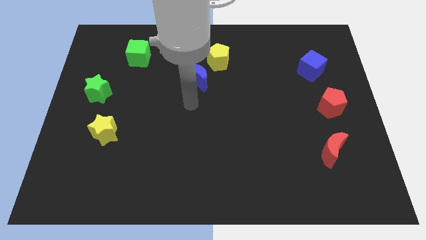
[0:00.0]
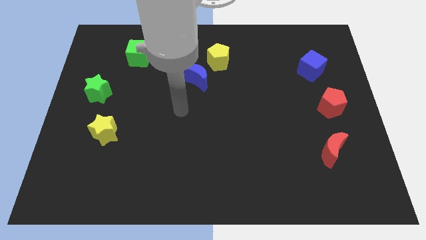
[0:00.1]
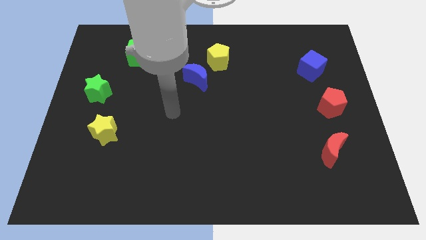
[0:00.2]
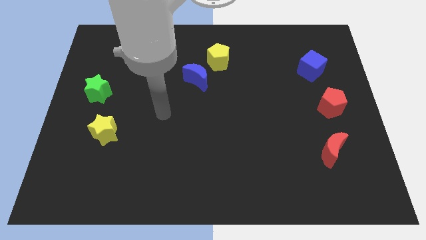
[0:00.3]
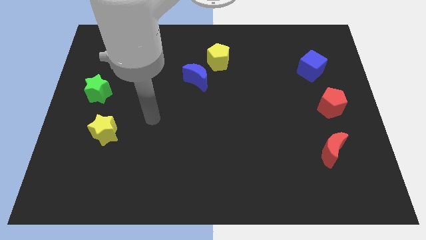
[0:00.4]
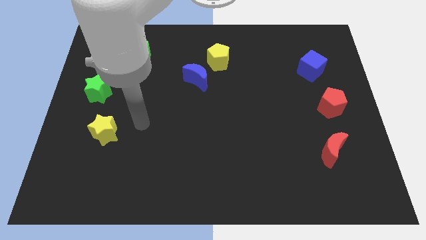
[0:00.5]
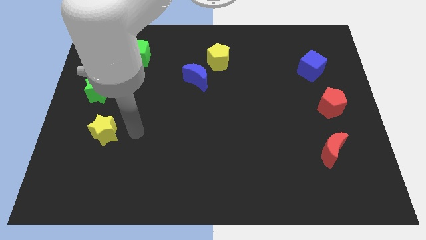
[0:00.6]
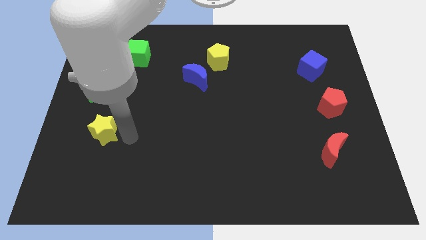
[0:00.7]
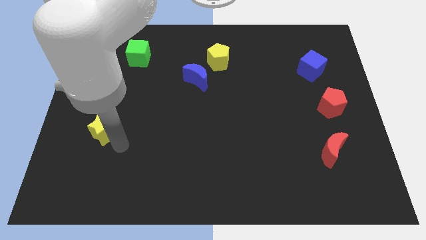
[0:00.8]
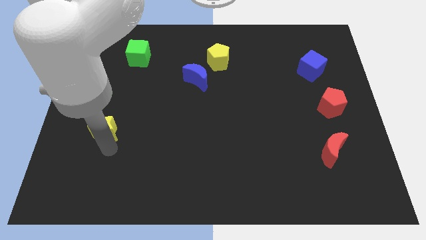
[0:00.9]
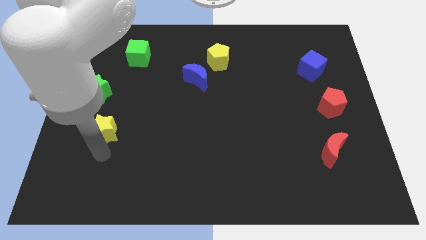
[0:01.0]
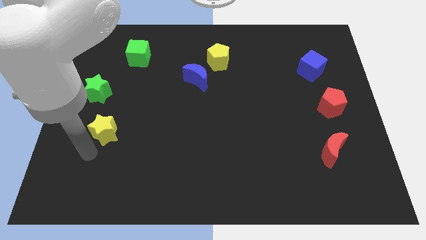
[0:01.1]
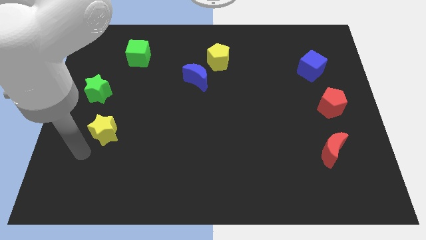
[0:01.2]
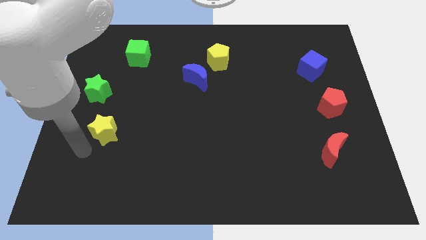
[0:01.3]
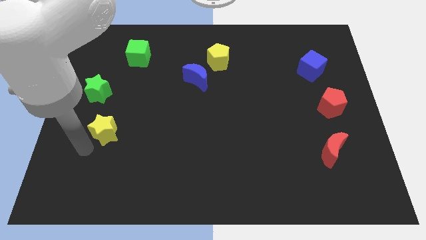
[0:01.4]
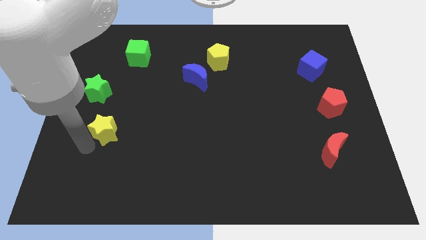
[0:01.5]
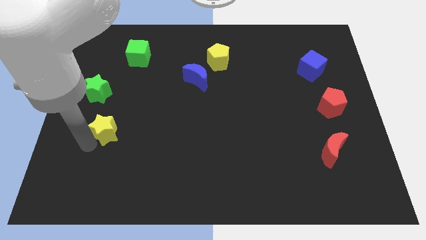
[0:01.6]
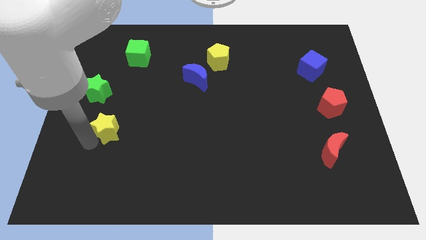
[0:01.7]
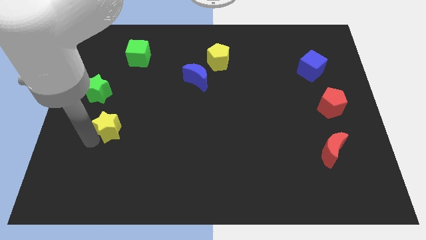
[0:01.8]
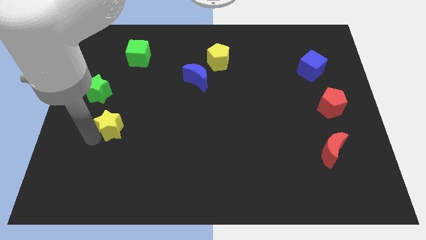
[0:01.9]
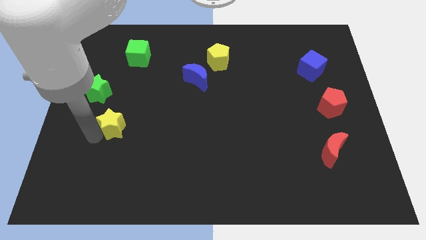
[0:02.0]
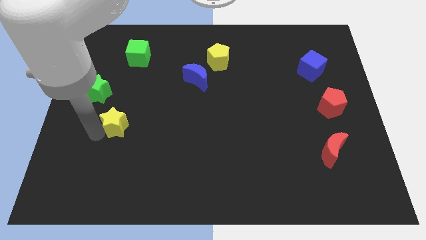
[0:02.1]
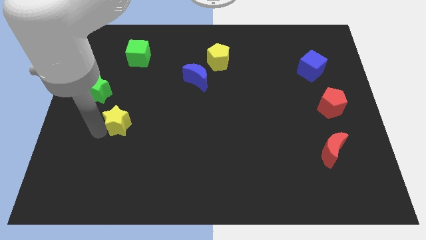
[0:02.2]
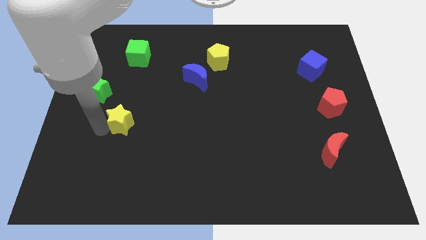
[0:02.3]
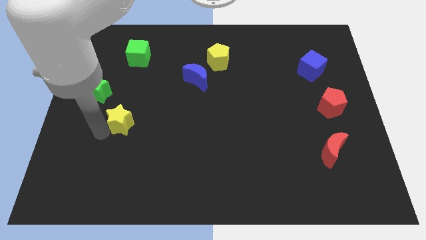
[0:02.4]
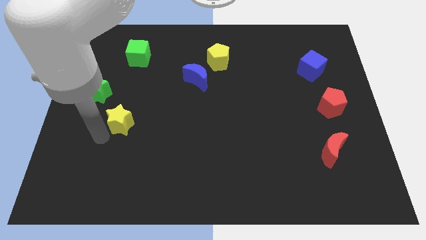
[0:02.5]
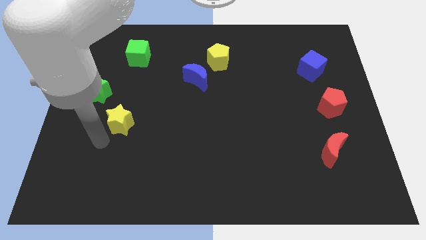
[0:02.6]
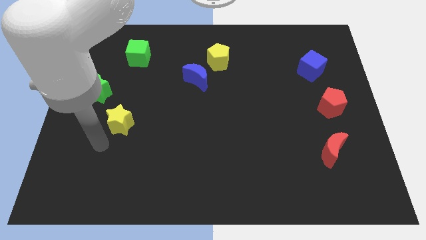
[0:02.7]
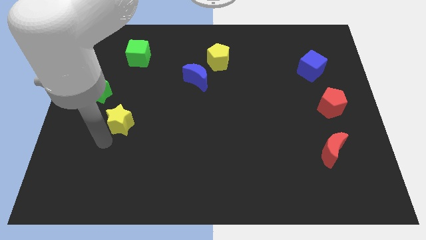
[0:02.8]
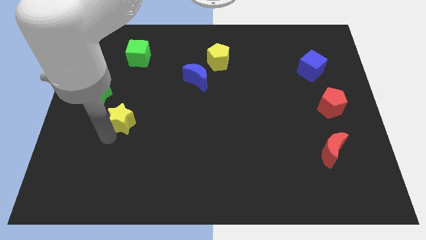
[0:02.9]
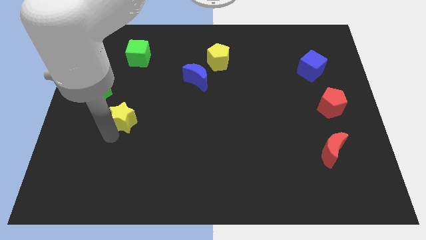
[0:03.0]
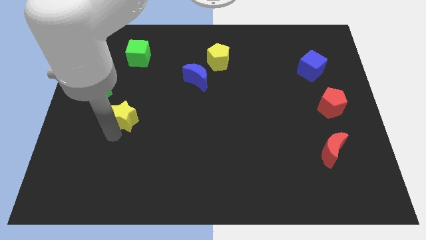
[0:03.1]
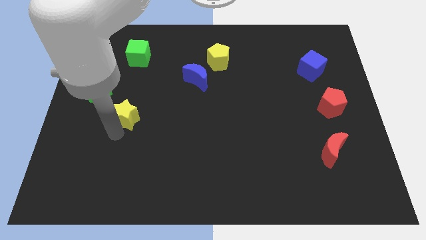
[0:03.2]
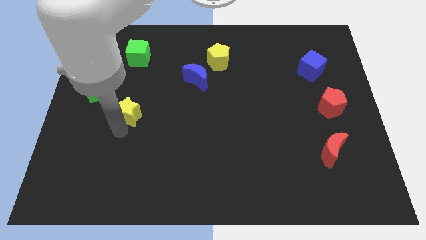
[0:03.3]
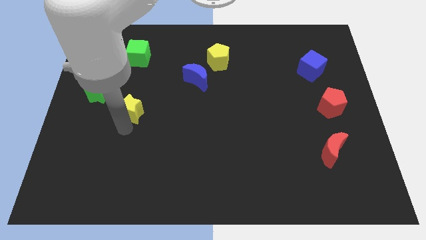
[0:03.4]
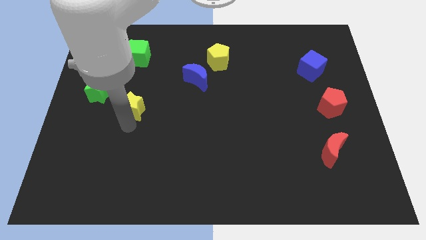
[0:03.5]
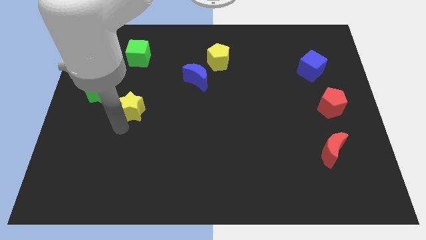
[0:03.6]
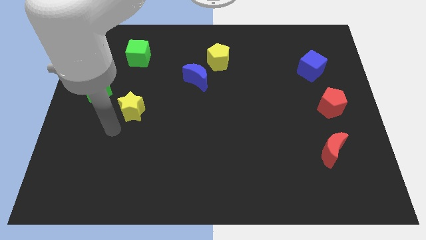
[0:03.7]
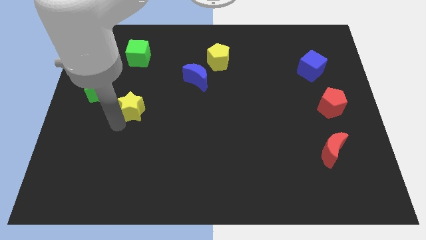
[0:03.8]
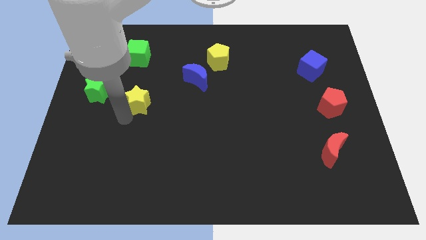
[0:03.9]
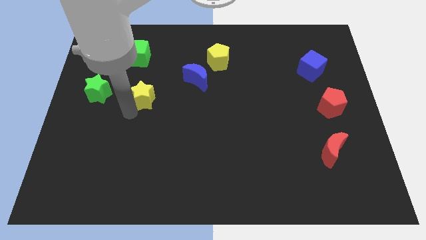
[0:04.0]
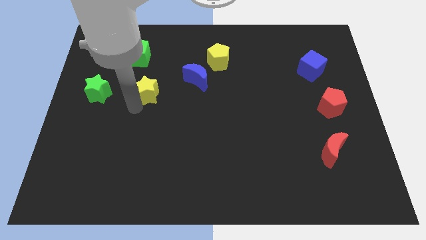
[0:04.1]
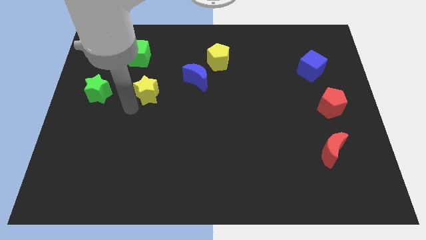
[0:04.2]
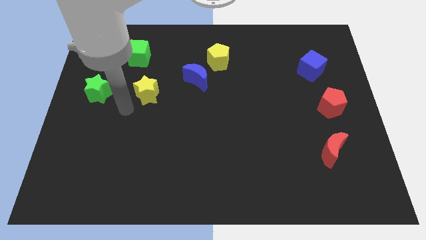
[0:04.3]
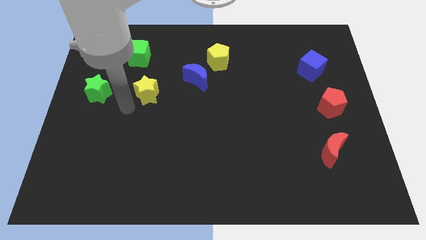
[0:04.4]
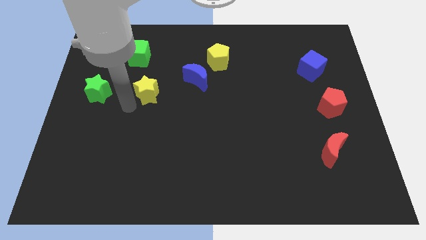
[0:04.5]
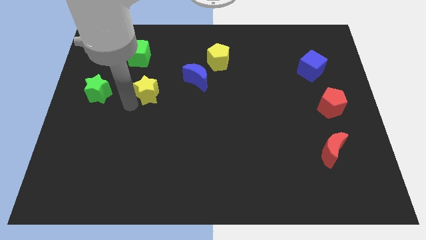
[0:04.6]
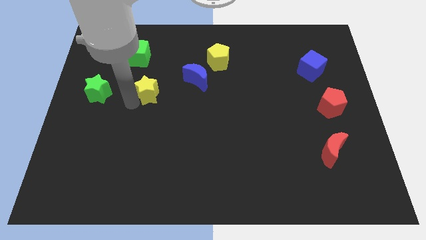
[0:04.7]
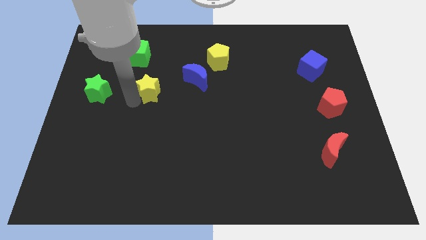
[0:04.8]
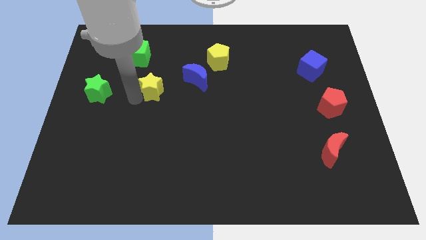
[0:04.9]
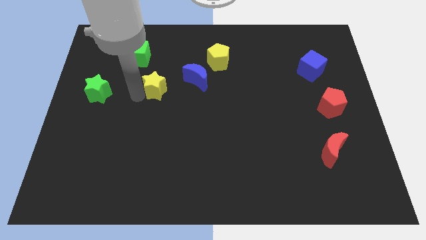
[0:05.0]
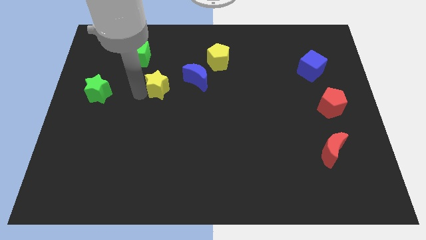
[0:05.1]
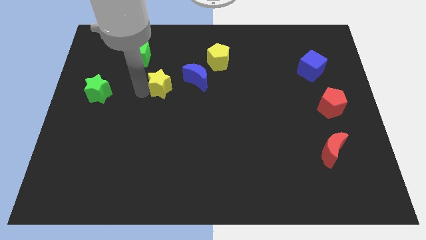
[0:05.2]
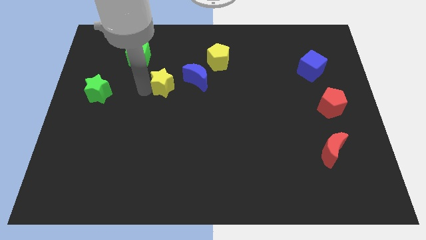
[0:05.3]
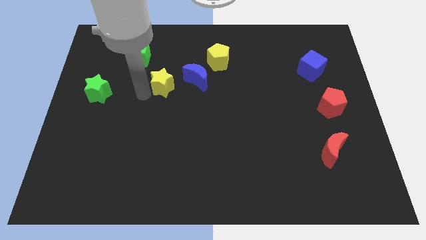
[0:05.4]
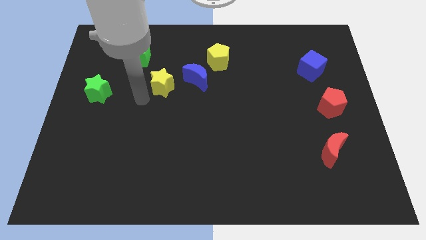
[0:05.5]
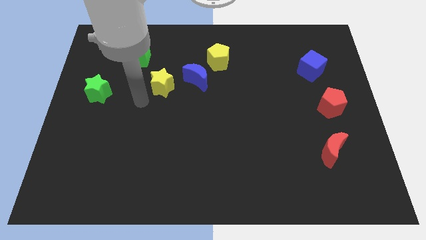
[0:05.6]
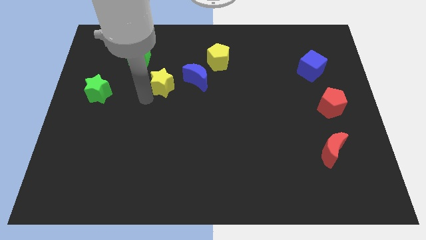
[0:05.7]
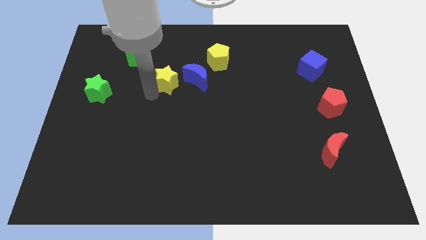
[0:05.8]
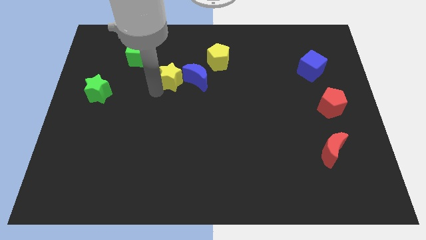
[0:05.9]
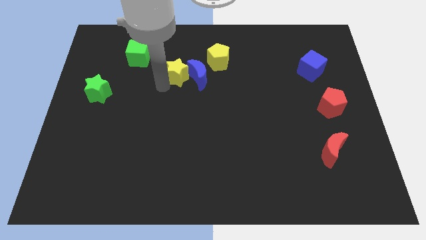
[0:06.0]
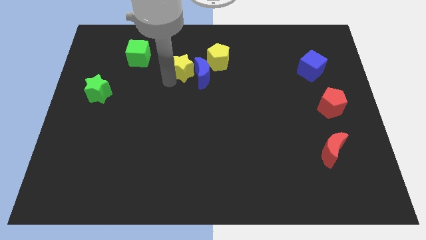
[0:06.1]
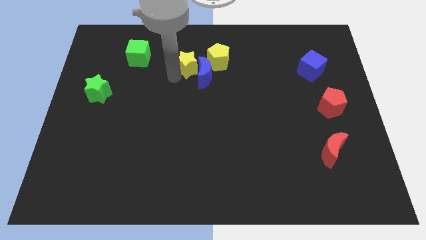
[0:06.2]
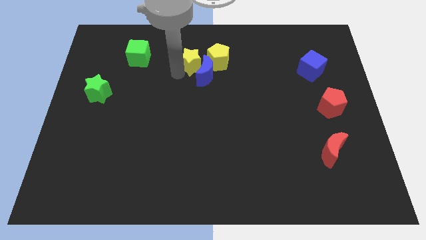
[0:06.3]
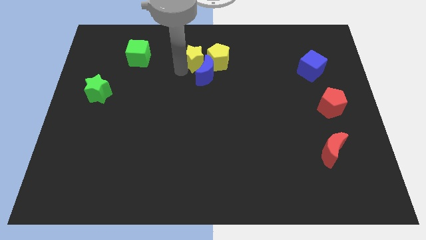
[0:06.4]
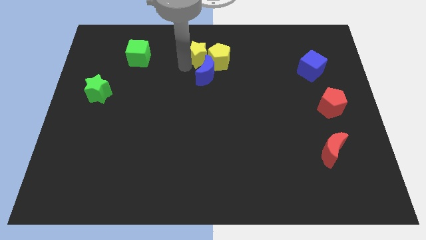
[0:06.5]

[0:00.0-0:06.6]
push the yellow star next to the yellow pentagon
